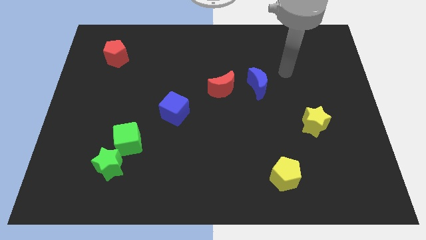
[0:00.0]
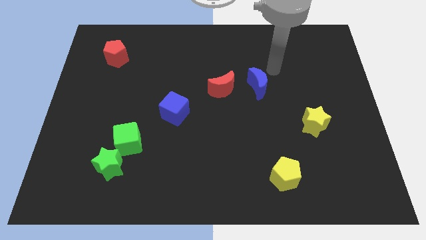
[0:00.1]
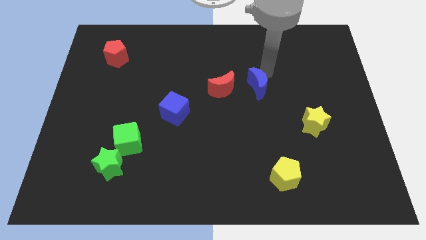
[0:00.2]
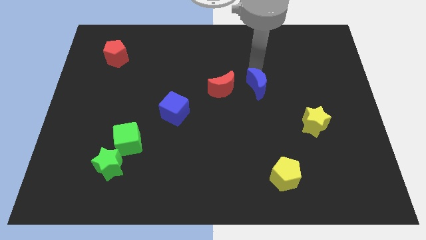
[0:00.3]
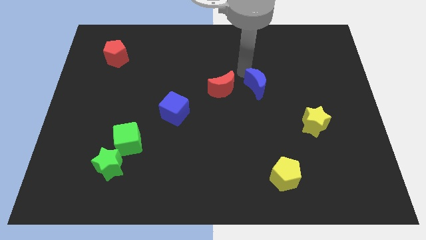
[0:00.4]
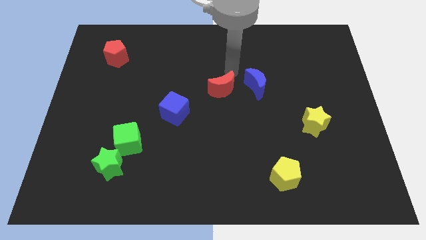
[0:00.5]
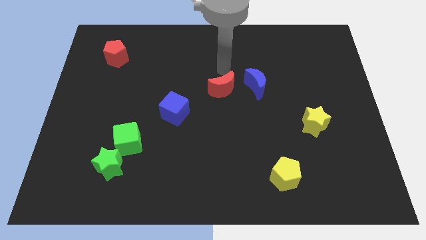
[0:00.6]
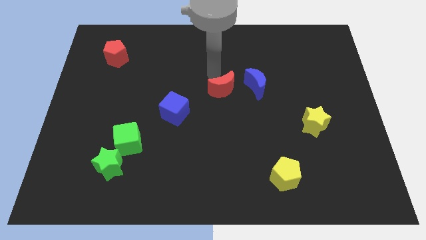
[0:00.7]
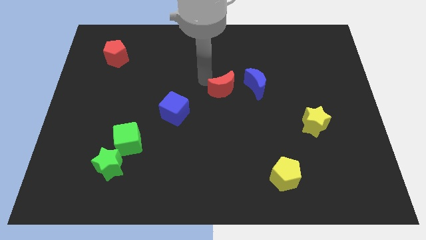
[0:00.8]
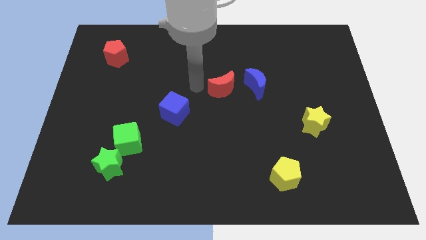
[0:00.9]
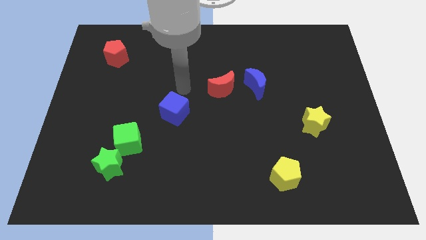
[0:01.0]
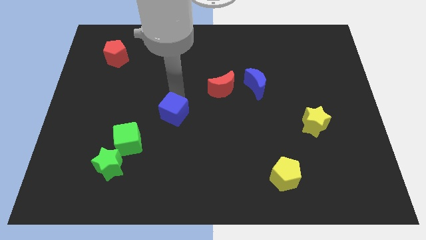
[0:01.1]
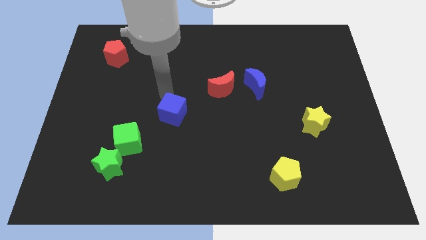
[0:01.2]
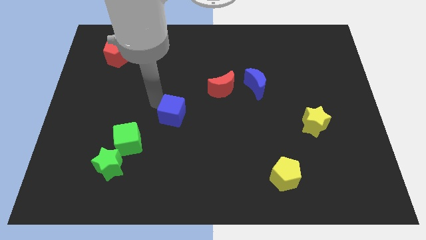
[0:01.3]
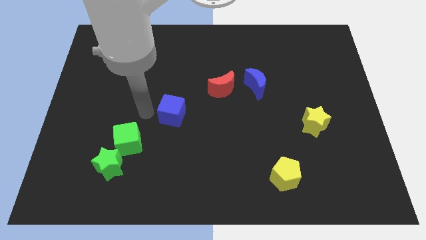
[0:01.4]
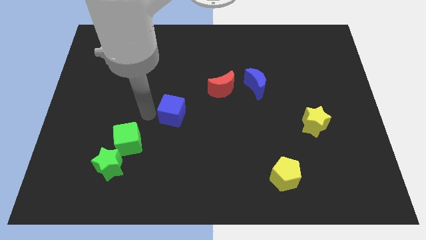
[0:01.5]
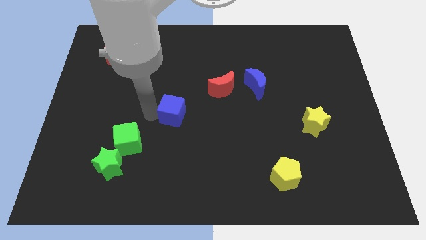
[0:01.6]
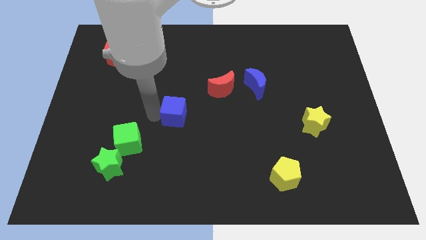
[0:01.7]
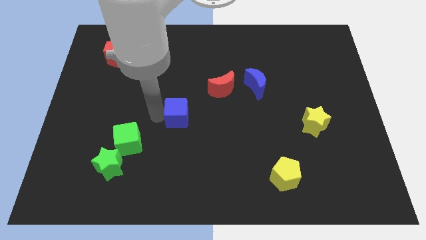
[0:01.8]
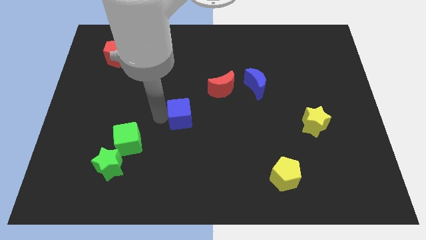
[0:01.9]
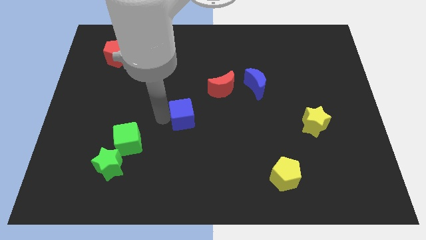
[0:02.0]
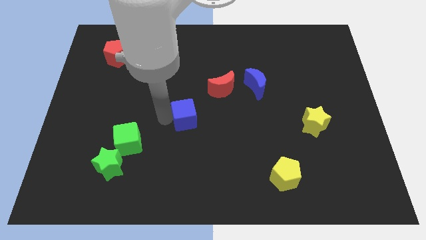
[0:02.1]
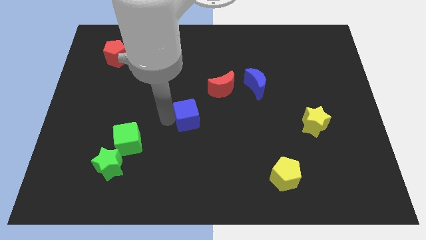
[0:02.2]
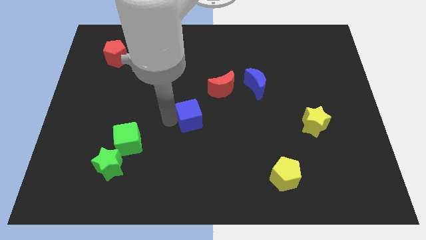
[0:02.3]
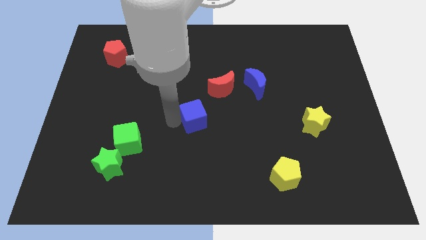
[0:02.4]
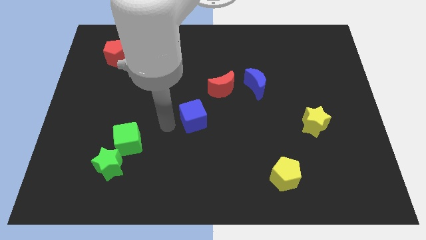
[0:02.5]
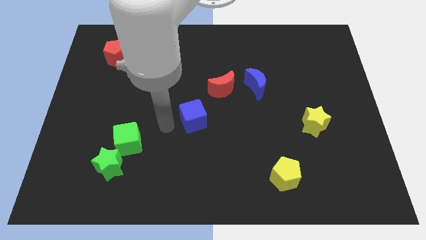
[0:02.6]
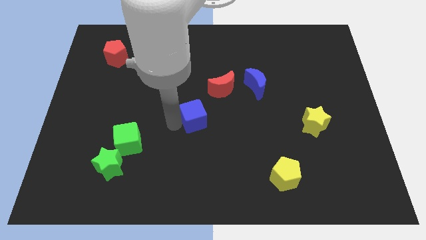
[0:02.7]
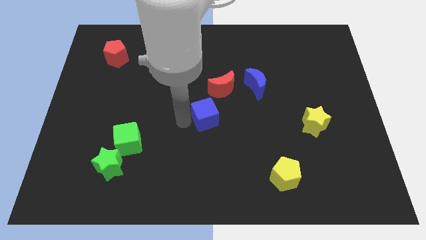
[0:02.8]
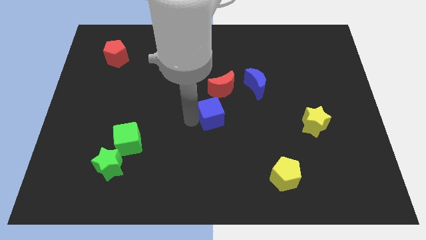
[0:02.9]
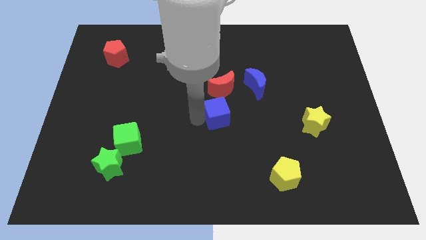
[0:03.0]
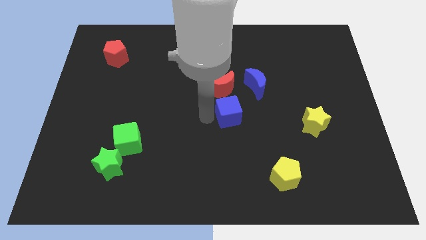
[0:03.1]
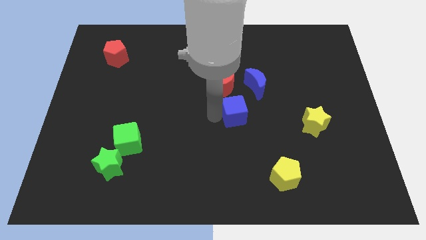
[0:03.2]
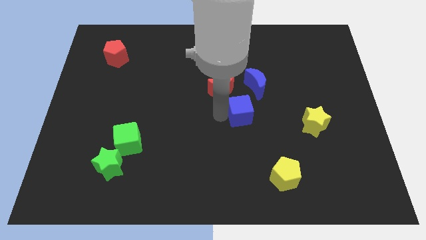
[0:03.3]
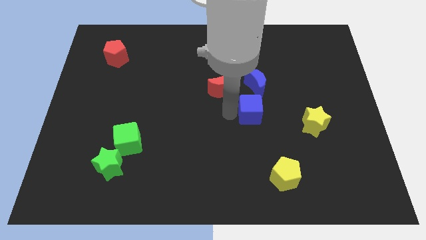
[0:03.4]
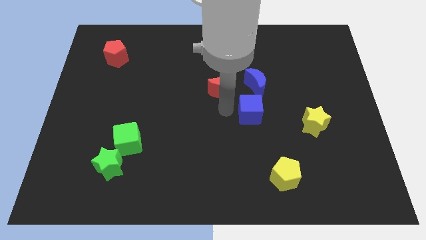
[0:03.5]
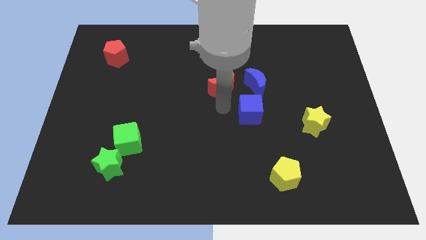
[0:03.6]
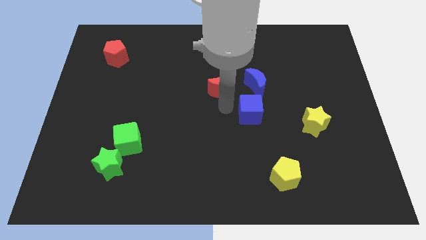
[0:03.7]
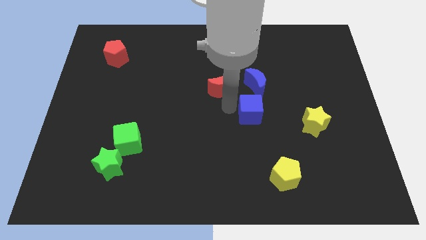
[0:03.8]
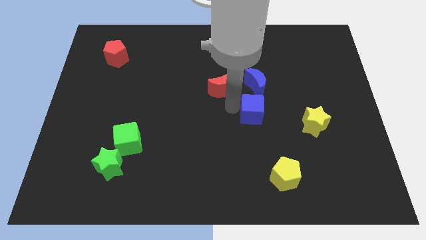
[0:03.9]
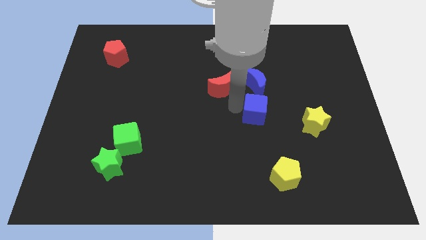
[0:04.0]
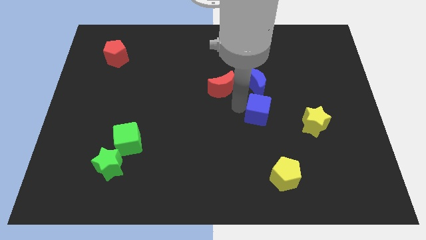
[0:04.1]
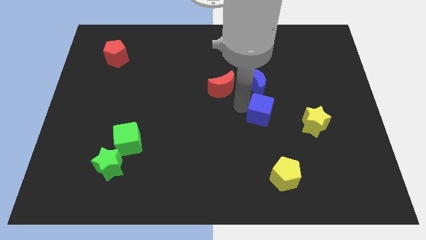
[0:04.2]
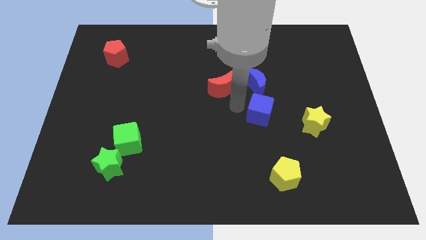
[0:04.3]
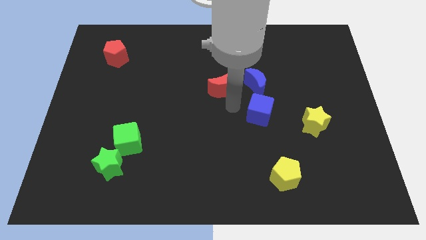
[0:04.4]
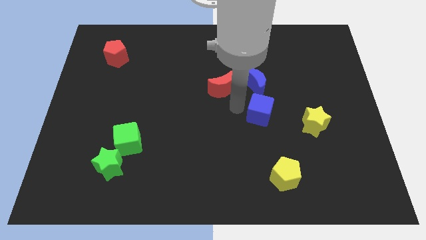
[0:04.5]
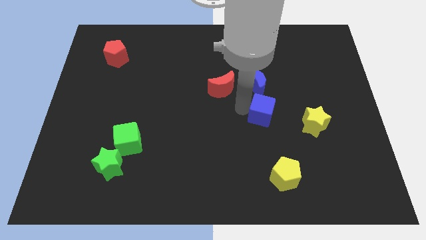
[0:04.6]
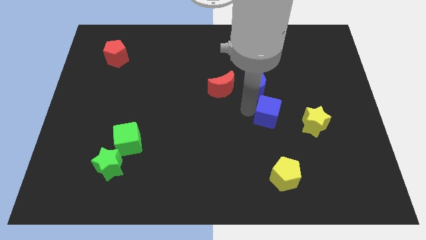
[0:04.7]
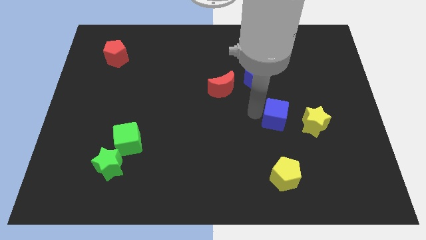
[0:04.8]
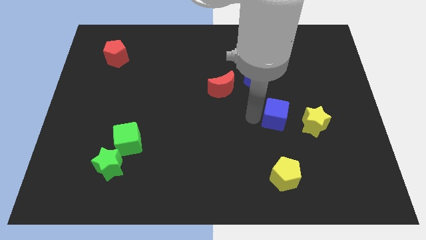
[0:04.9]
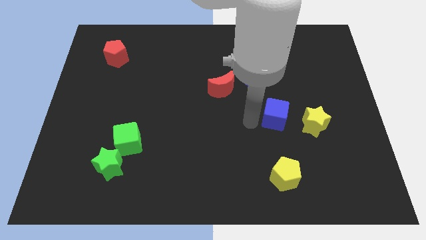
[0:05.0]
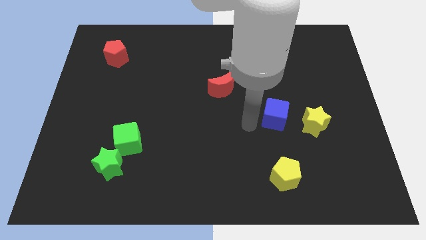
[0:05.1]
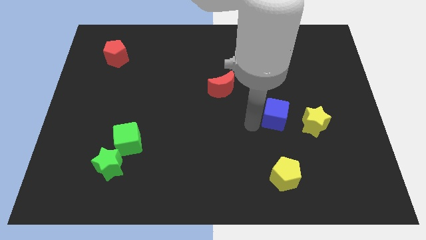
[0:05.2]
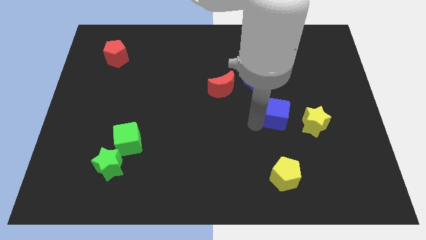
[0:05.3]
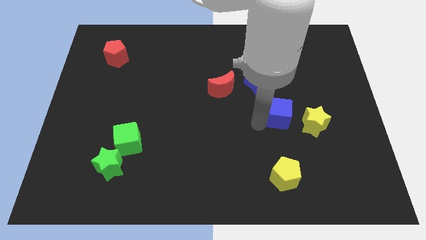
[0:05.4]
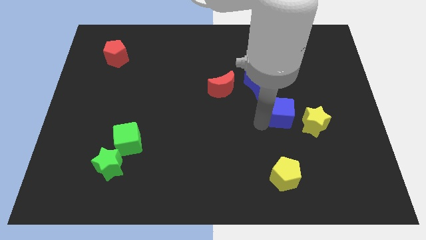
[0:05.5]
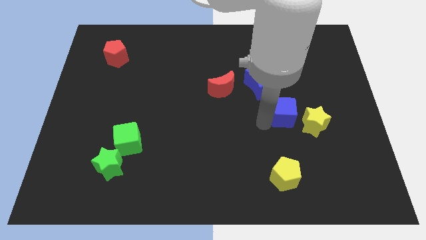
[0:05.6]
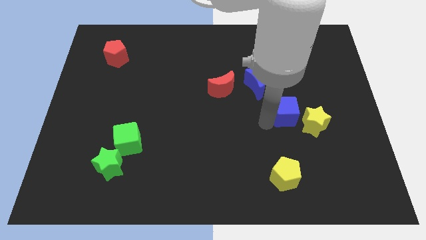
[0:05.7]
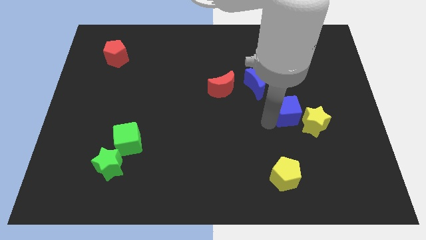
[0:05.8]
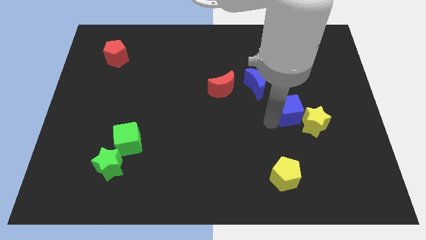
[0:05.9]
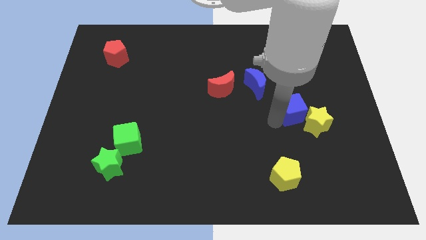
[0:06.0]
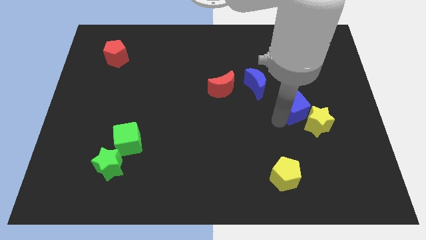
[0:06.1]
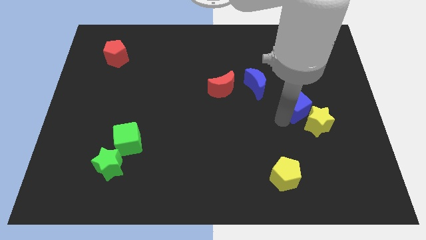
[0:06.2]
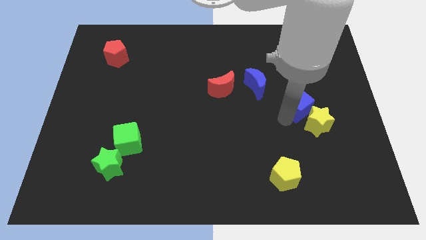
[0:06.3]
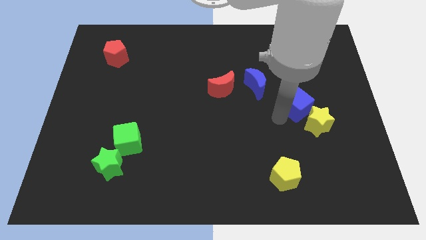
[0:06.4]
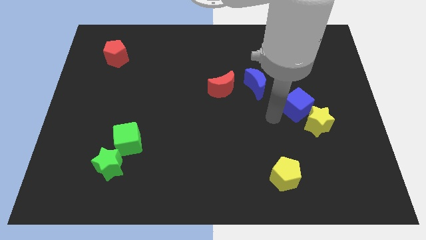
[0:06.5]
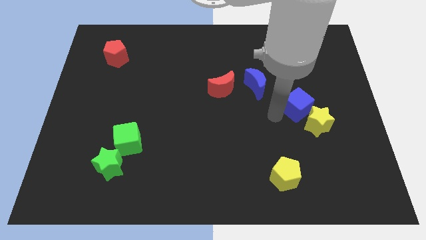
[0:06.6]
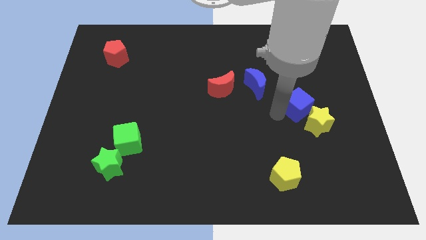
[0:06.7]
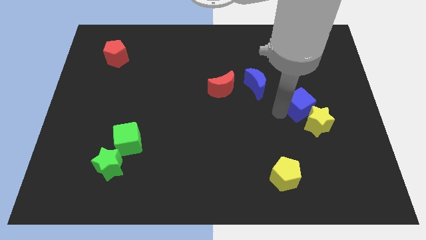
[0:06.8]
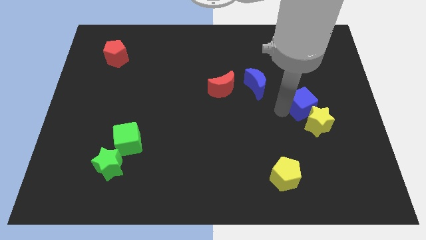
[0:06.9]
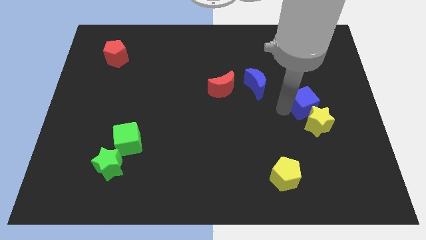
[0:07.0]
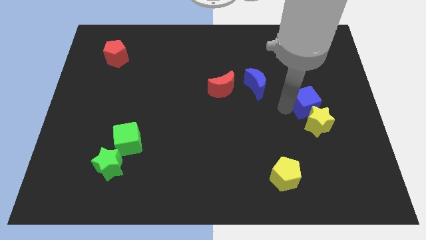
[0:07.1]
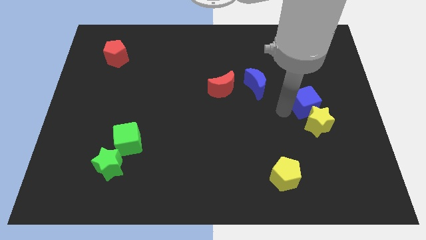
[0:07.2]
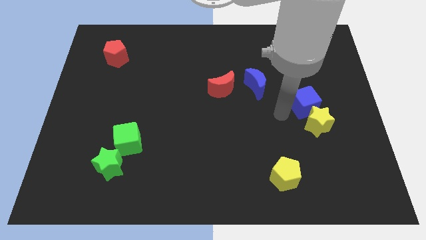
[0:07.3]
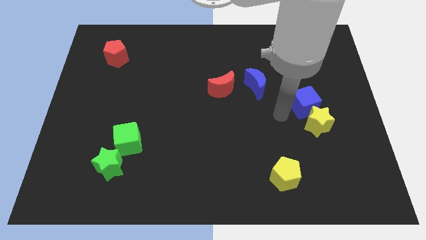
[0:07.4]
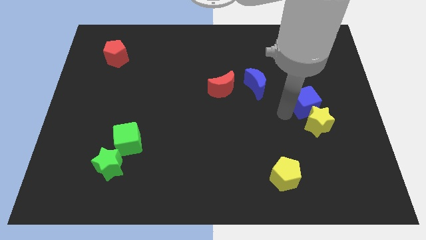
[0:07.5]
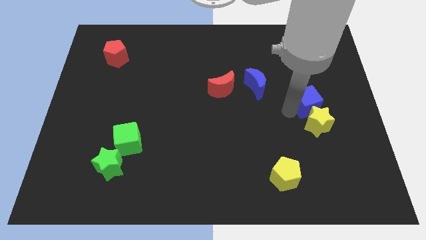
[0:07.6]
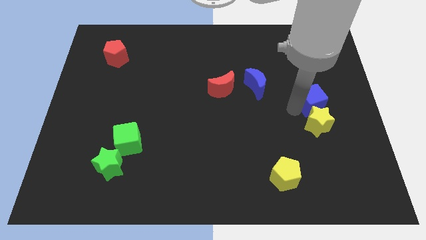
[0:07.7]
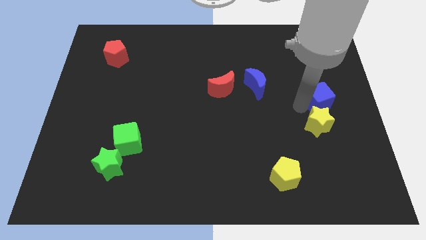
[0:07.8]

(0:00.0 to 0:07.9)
push the blue cube to the right side of the board
